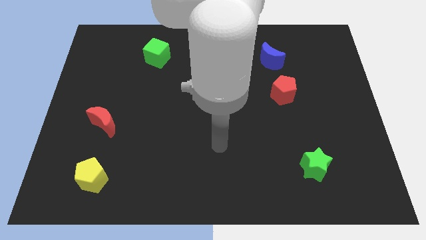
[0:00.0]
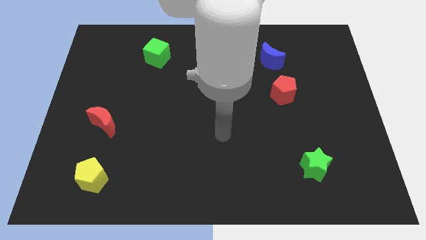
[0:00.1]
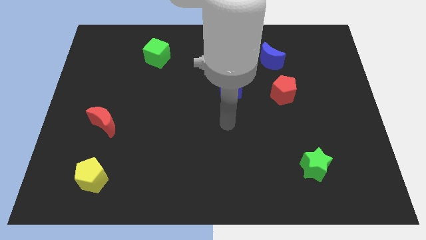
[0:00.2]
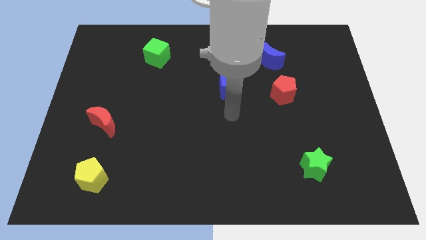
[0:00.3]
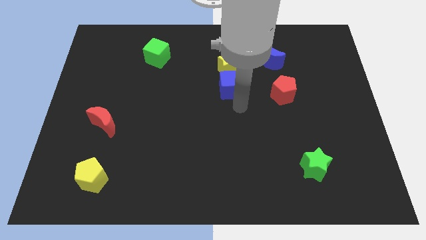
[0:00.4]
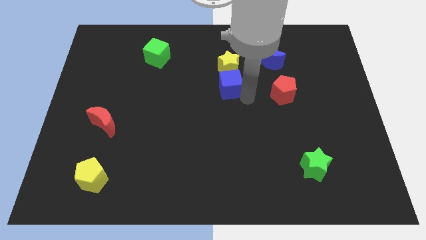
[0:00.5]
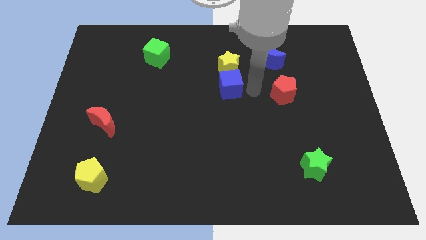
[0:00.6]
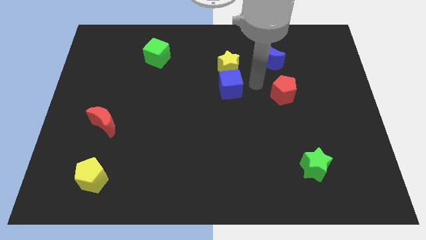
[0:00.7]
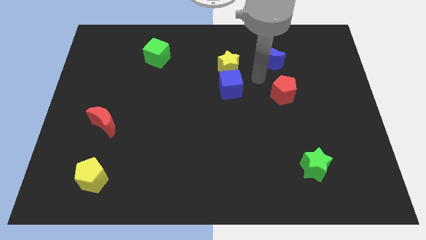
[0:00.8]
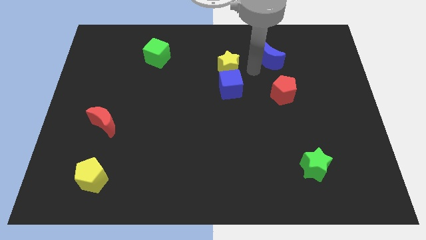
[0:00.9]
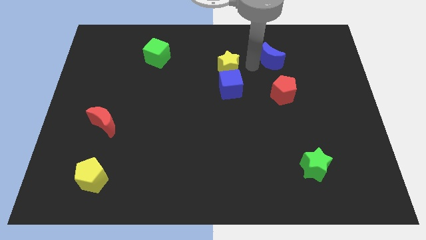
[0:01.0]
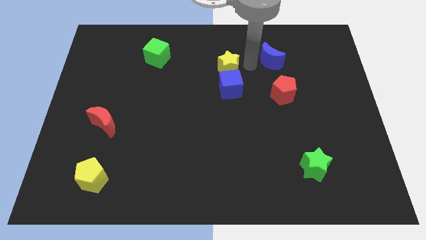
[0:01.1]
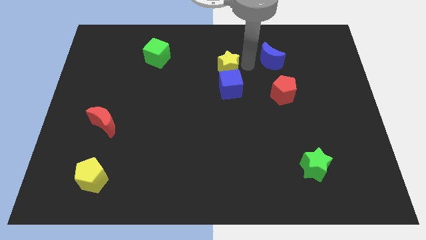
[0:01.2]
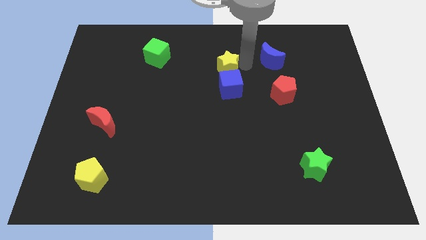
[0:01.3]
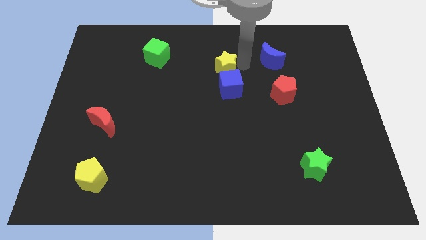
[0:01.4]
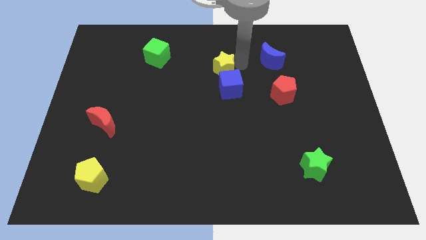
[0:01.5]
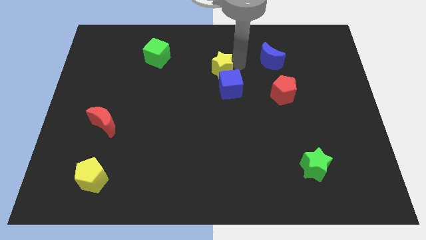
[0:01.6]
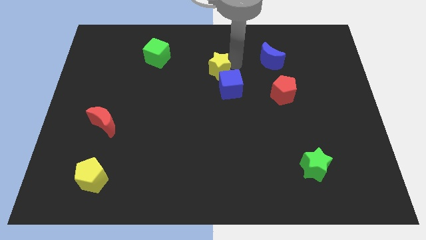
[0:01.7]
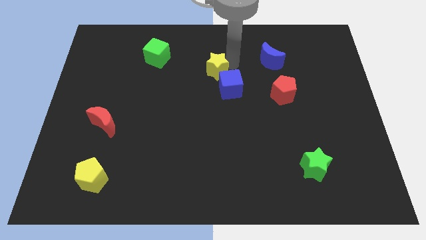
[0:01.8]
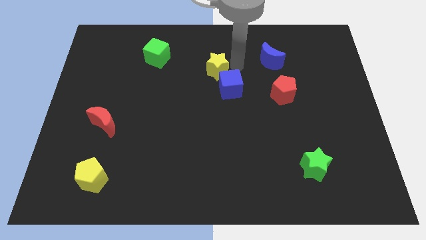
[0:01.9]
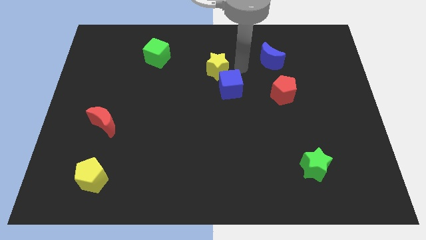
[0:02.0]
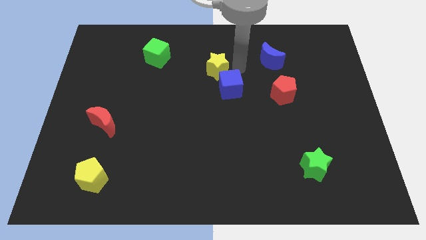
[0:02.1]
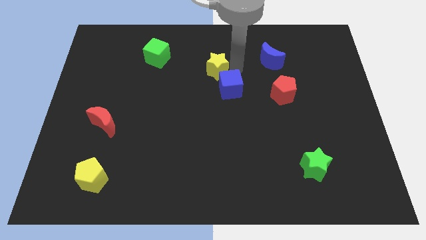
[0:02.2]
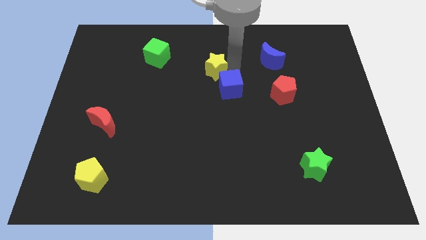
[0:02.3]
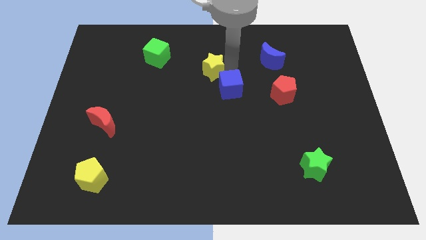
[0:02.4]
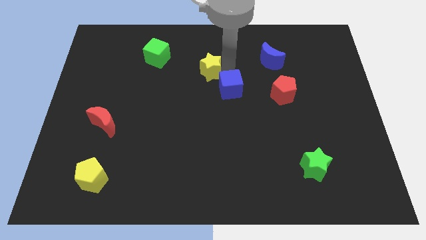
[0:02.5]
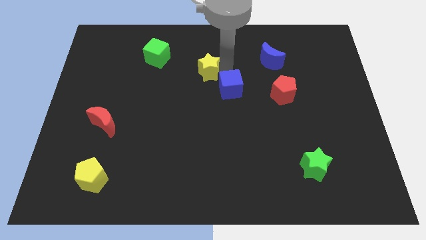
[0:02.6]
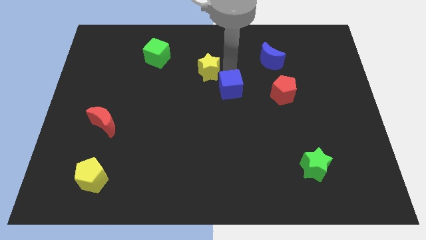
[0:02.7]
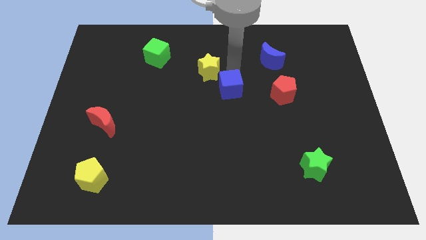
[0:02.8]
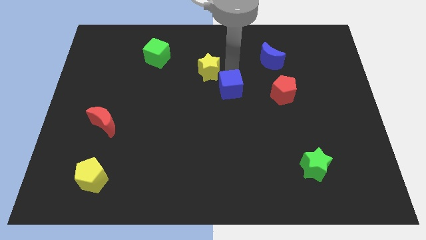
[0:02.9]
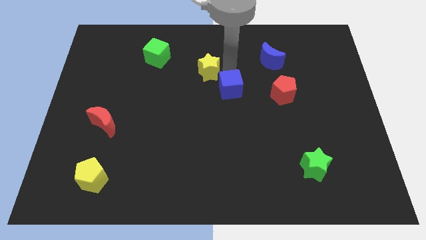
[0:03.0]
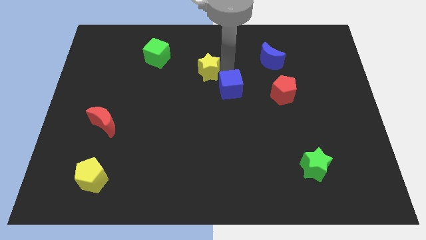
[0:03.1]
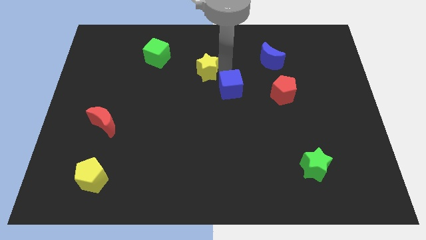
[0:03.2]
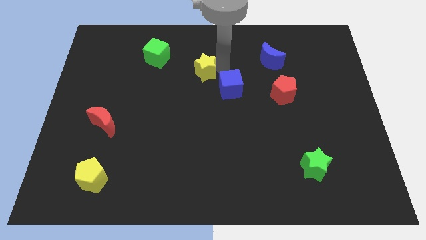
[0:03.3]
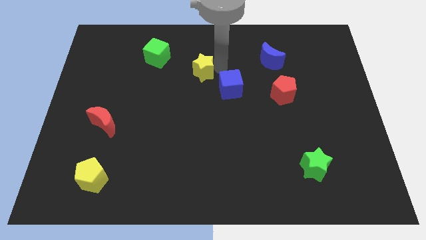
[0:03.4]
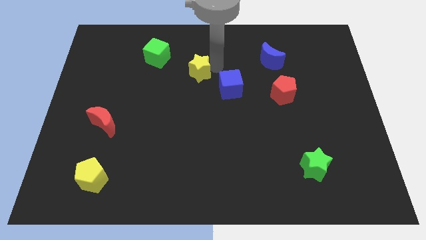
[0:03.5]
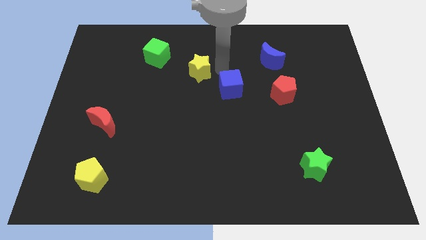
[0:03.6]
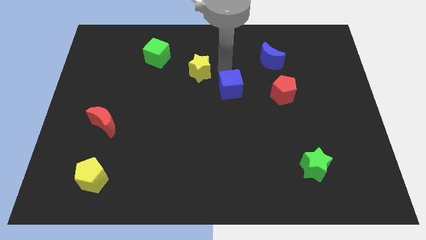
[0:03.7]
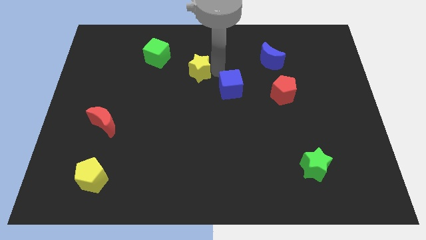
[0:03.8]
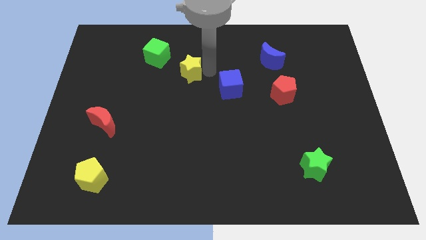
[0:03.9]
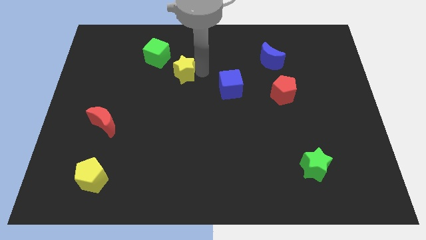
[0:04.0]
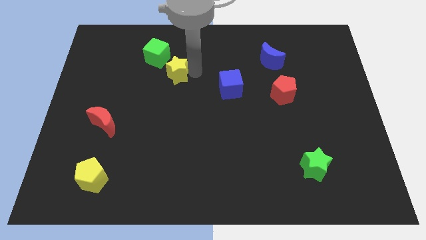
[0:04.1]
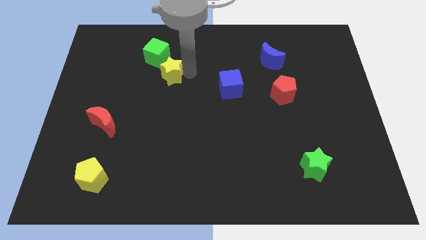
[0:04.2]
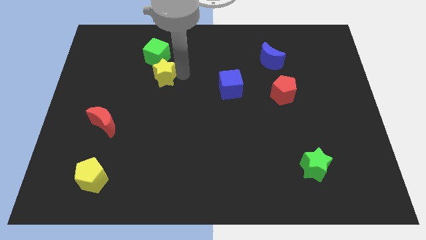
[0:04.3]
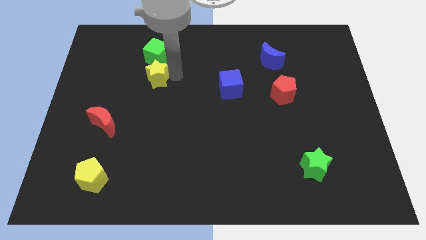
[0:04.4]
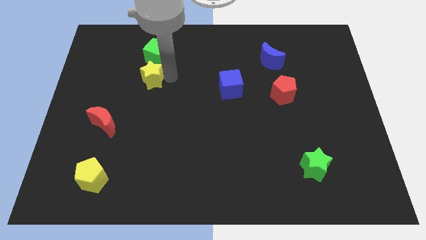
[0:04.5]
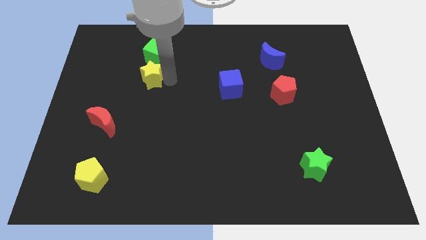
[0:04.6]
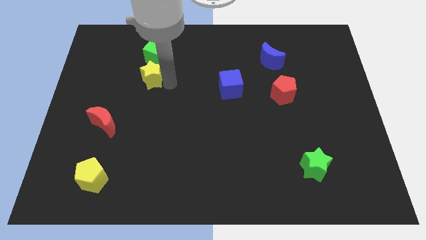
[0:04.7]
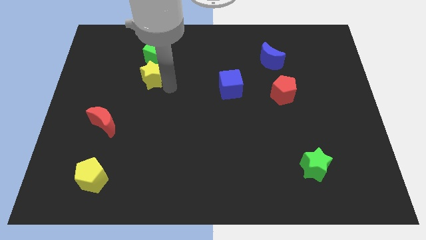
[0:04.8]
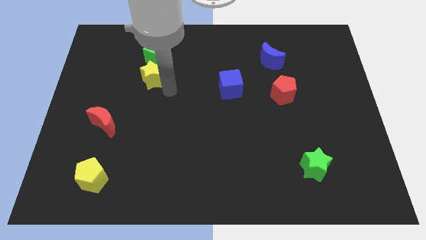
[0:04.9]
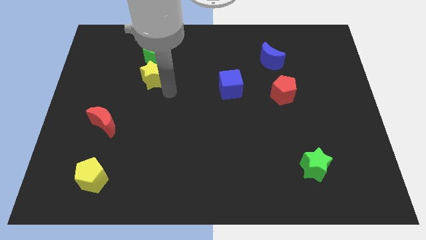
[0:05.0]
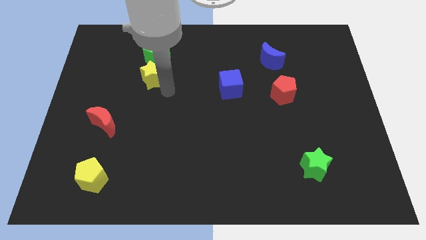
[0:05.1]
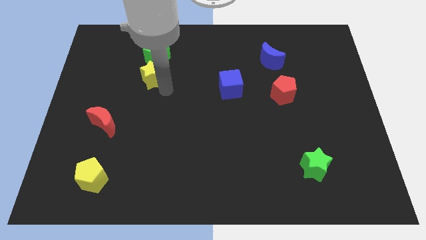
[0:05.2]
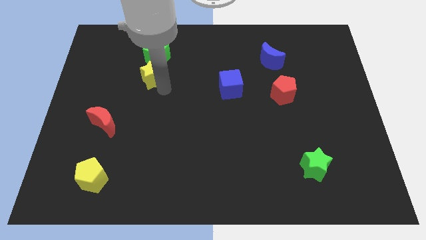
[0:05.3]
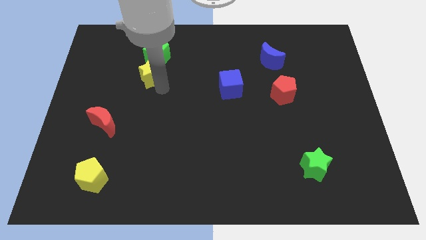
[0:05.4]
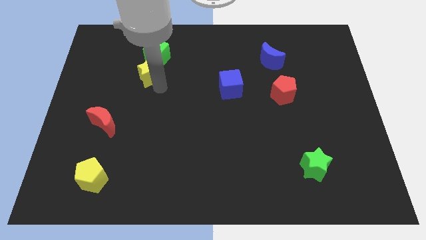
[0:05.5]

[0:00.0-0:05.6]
slide the yellow star to the left

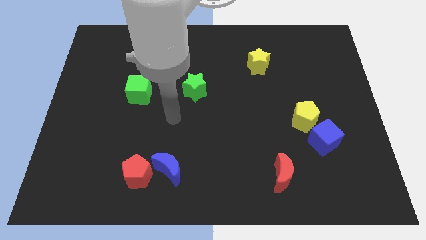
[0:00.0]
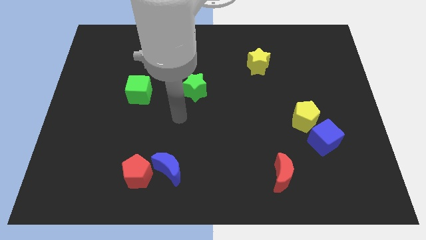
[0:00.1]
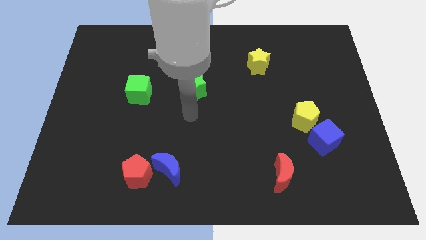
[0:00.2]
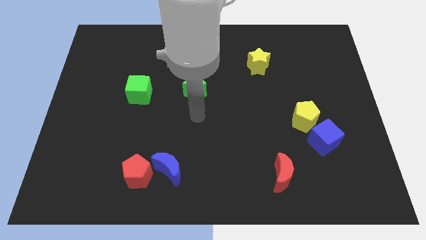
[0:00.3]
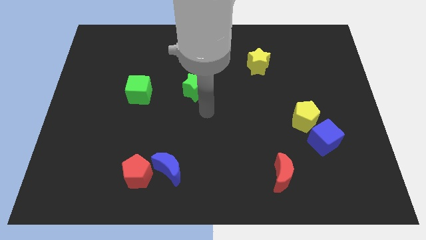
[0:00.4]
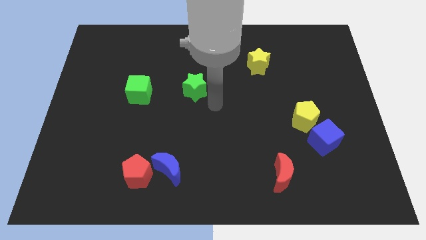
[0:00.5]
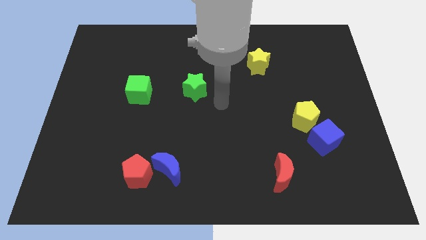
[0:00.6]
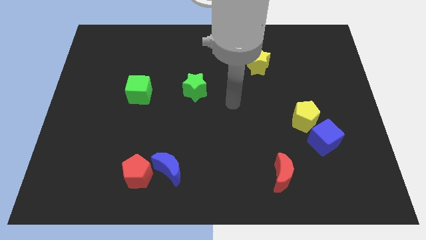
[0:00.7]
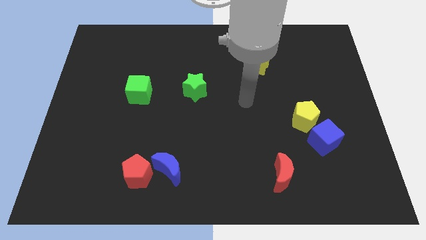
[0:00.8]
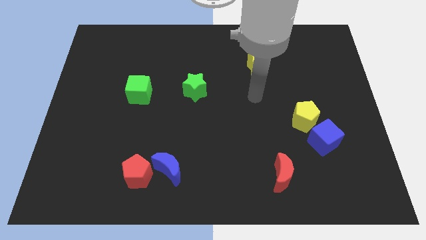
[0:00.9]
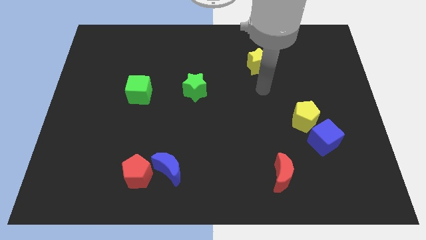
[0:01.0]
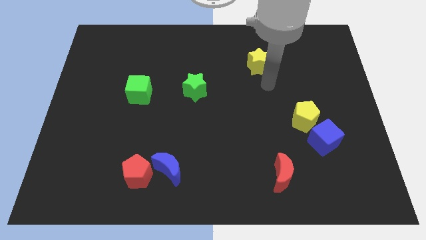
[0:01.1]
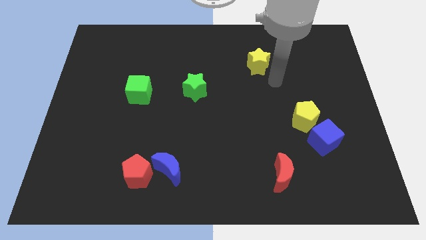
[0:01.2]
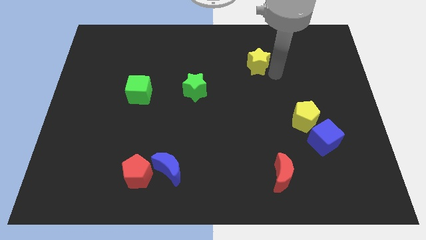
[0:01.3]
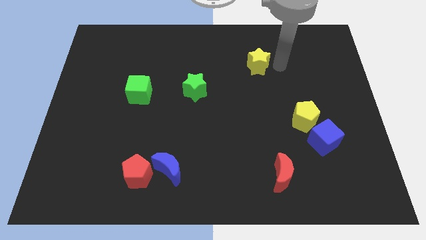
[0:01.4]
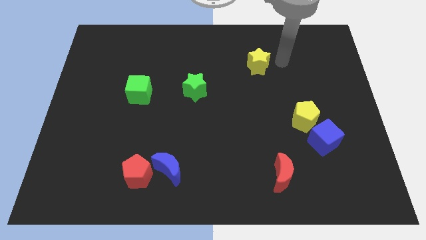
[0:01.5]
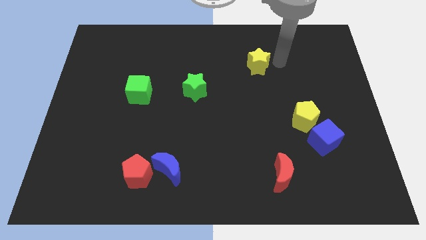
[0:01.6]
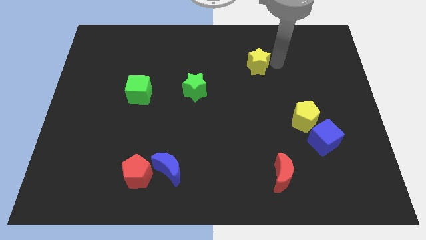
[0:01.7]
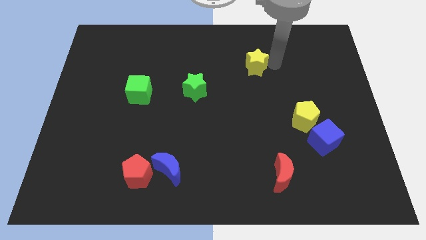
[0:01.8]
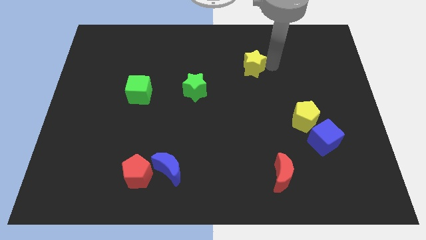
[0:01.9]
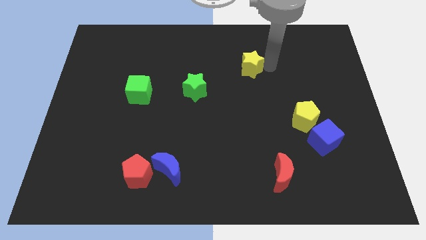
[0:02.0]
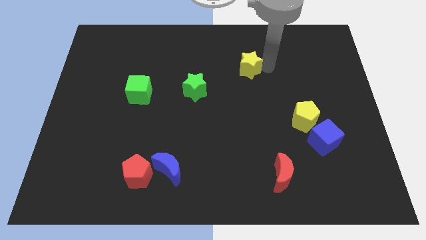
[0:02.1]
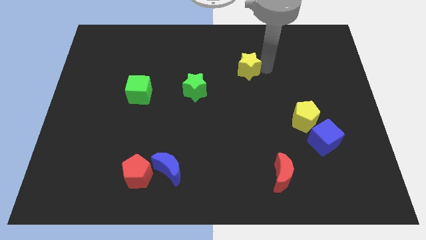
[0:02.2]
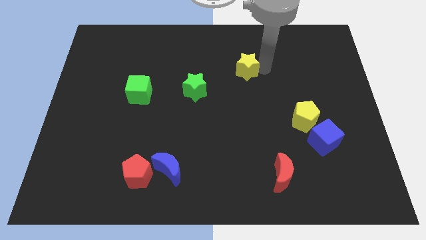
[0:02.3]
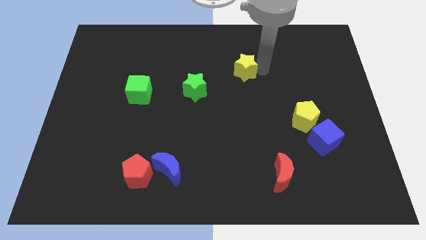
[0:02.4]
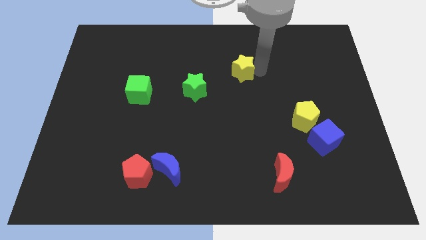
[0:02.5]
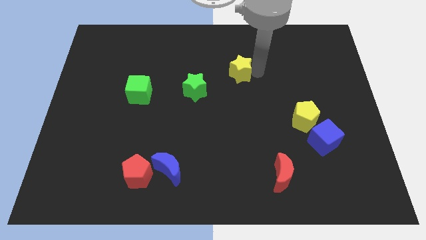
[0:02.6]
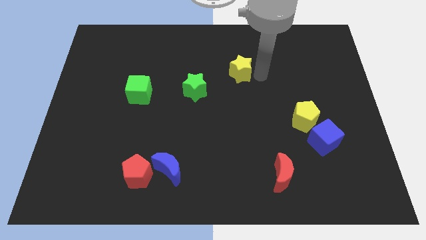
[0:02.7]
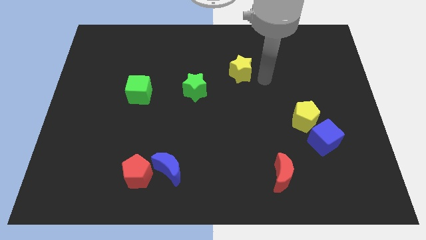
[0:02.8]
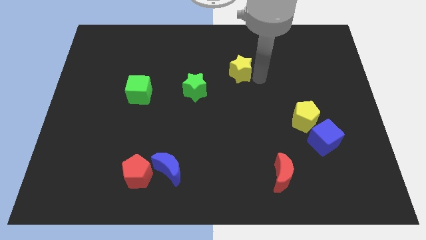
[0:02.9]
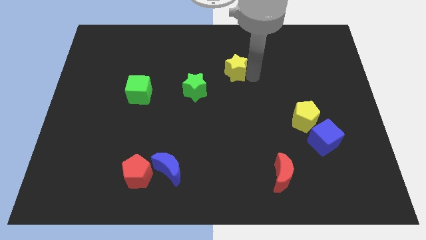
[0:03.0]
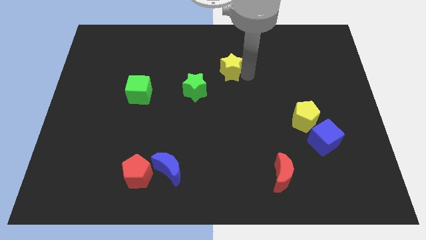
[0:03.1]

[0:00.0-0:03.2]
push the yellow star a bit left
